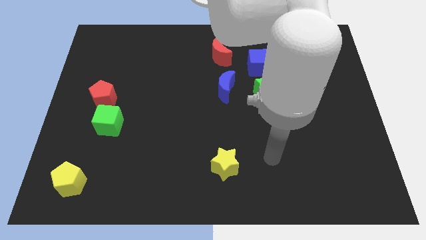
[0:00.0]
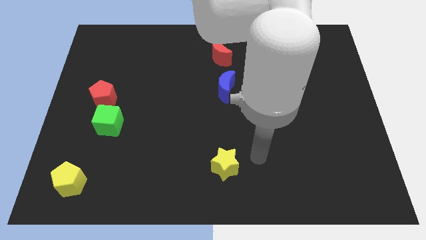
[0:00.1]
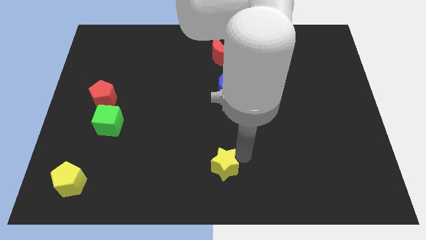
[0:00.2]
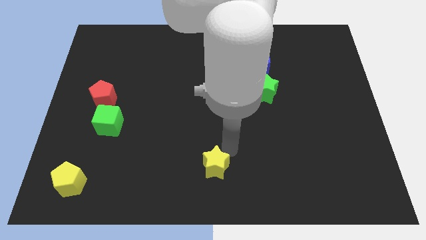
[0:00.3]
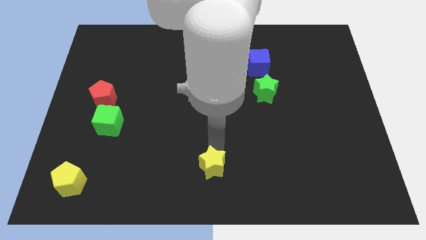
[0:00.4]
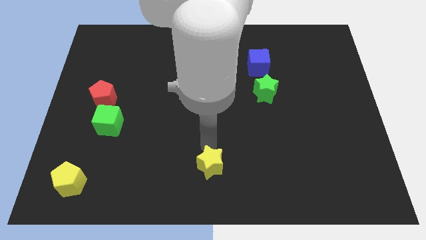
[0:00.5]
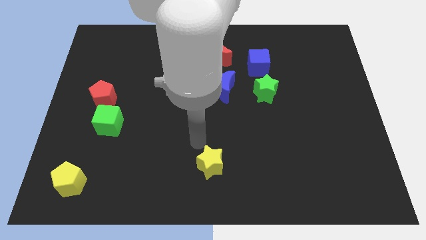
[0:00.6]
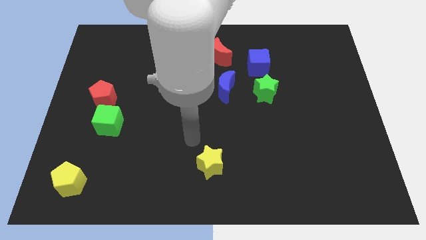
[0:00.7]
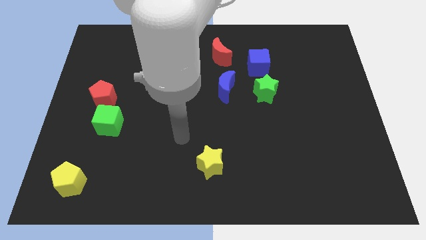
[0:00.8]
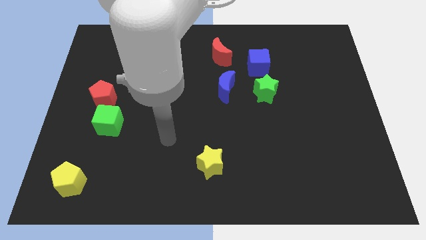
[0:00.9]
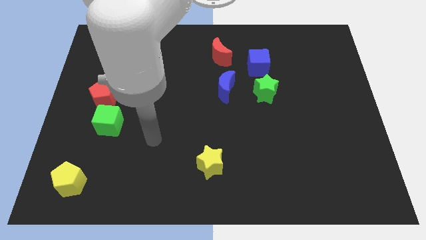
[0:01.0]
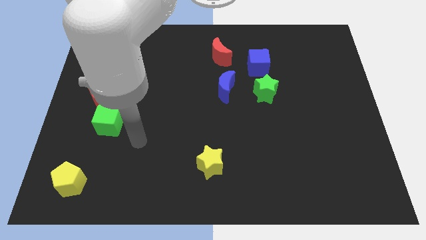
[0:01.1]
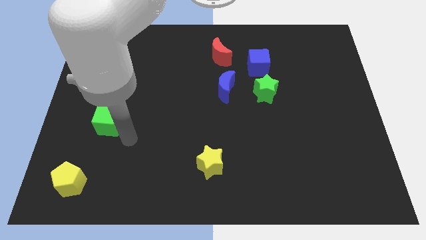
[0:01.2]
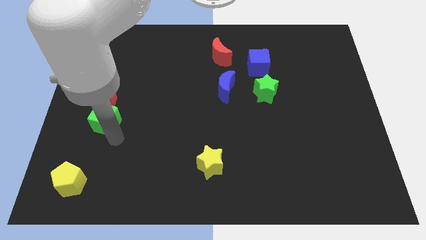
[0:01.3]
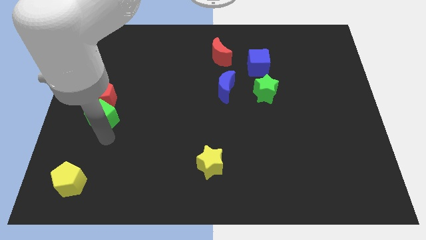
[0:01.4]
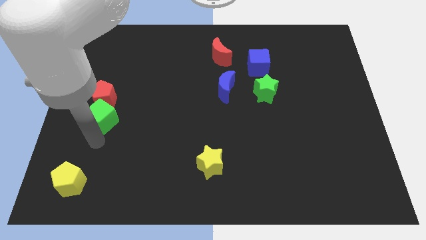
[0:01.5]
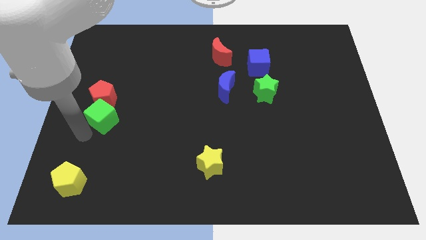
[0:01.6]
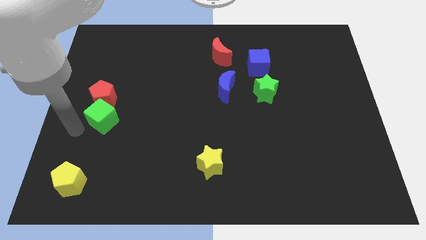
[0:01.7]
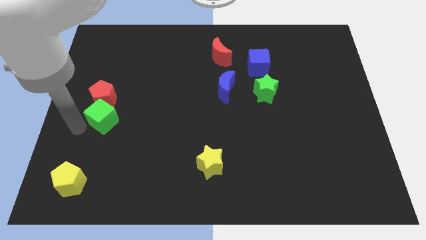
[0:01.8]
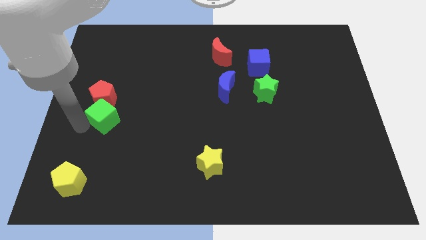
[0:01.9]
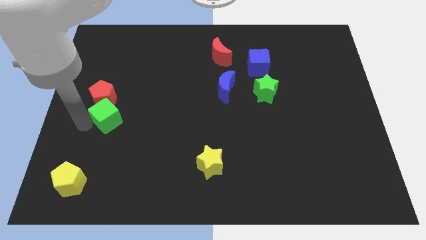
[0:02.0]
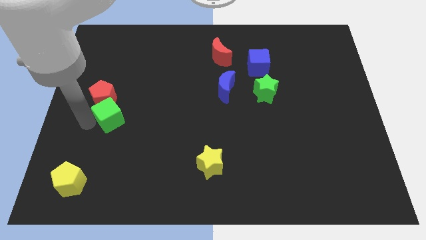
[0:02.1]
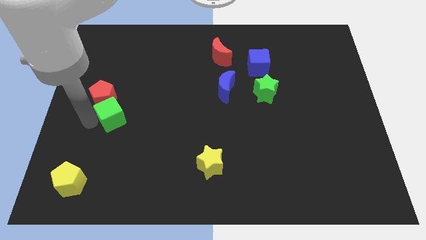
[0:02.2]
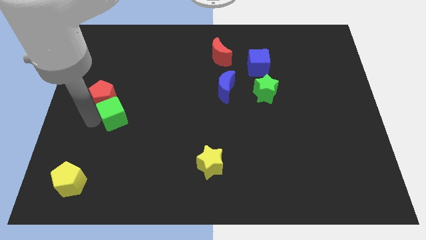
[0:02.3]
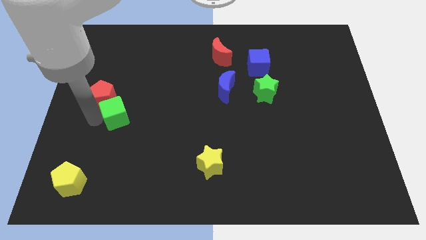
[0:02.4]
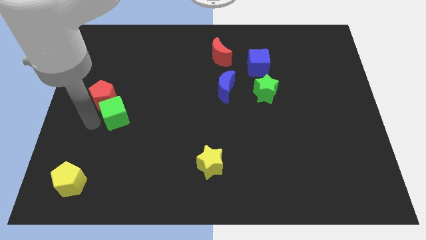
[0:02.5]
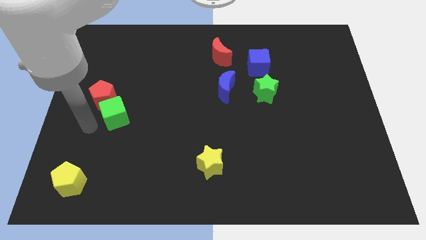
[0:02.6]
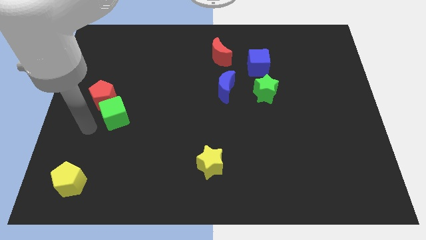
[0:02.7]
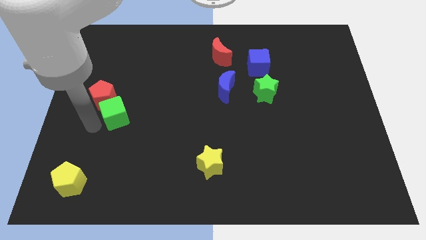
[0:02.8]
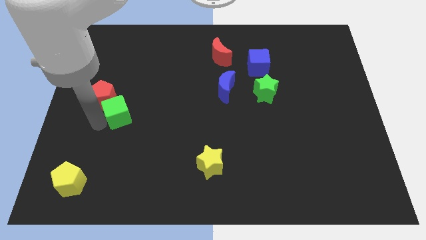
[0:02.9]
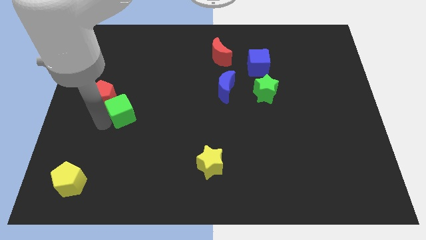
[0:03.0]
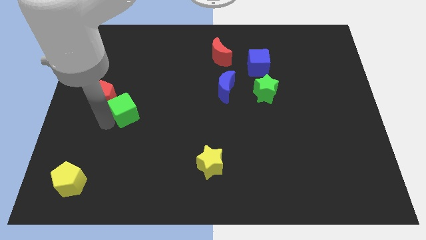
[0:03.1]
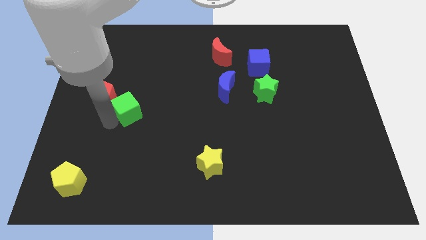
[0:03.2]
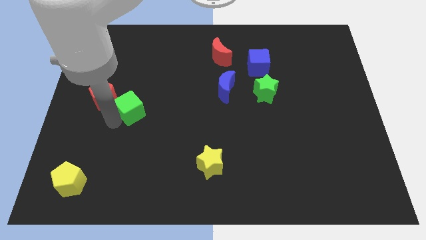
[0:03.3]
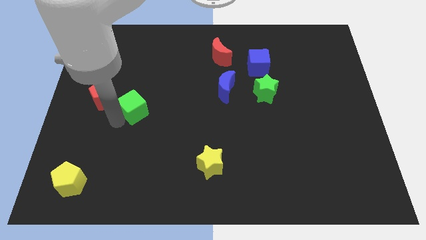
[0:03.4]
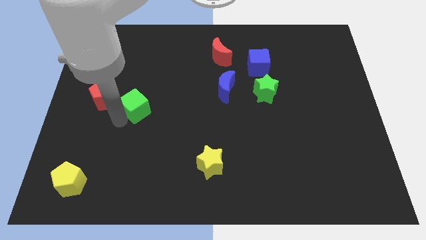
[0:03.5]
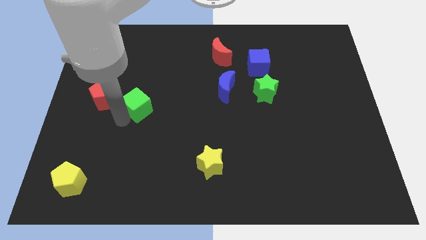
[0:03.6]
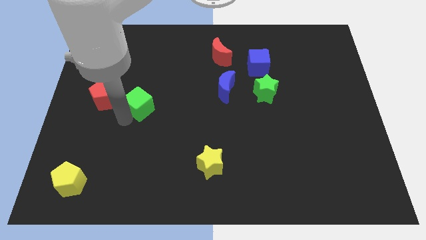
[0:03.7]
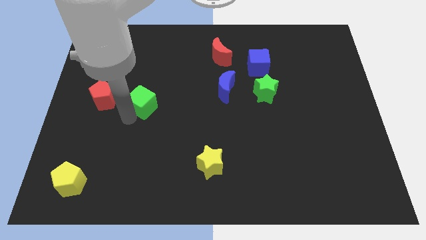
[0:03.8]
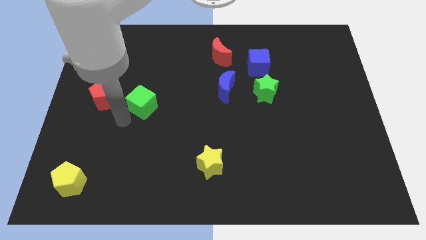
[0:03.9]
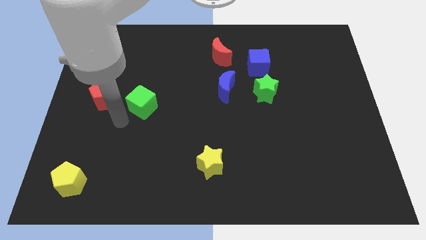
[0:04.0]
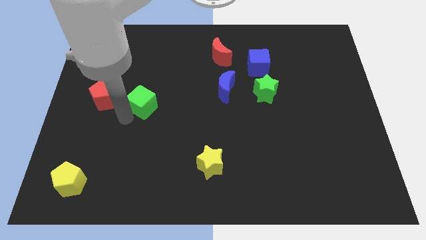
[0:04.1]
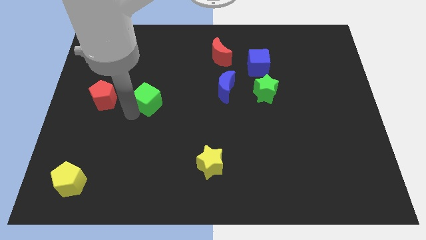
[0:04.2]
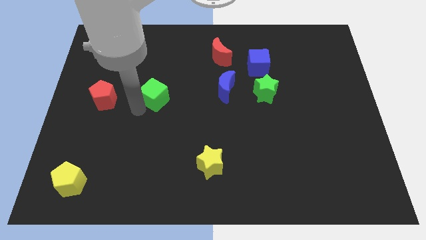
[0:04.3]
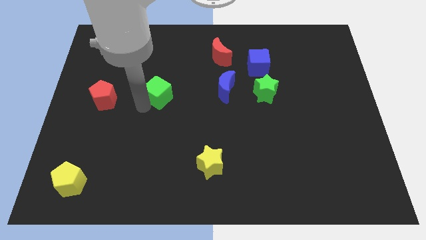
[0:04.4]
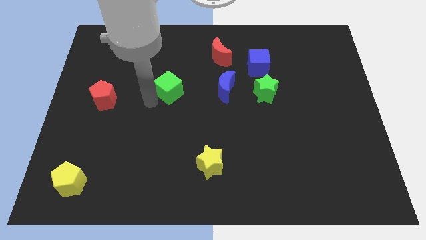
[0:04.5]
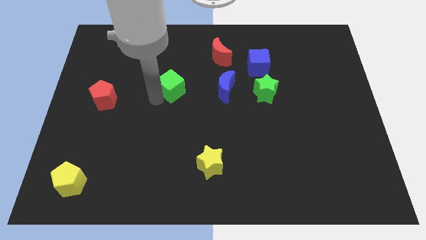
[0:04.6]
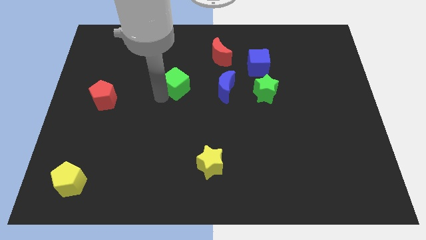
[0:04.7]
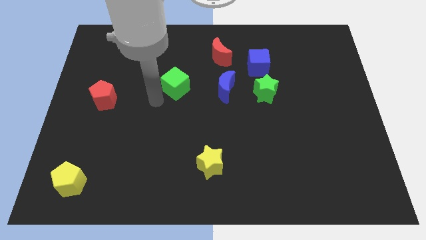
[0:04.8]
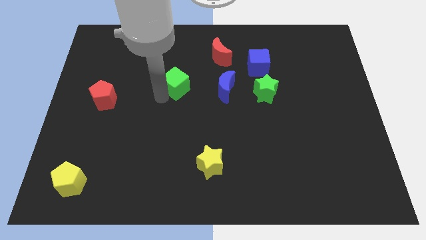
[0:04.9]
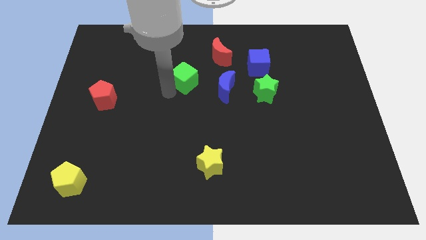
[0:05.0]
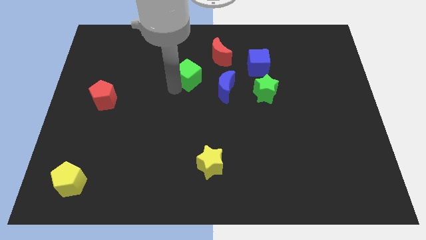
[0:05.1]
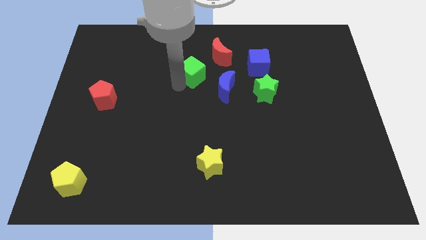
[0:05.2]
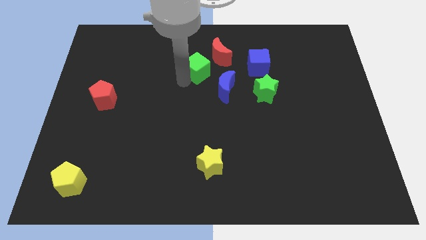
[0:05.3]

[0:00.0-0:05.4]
put the green cube to the left of the blue cube

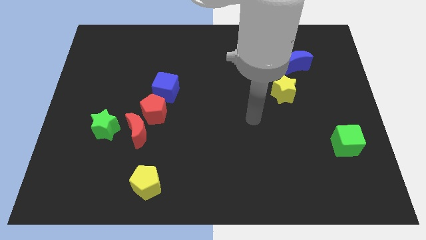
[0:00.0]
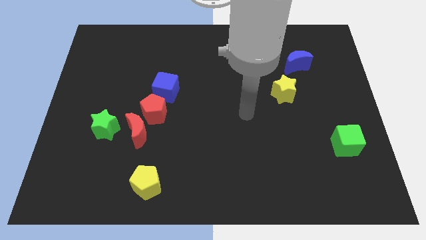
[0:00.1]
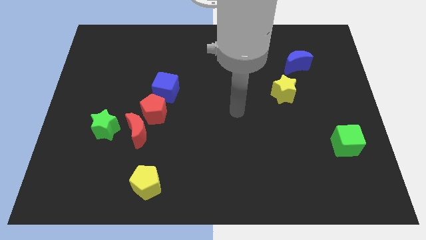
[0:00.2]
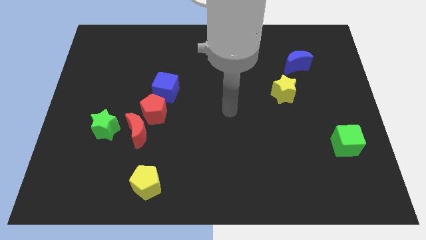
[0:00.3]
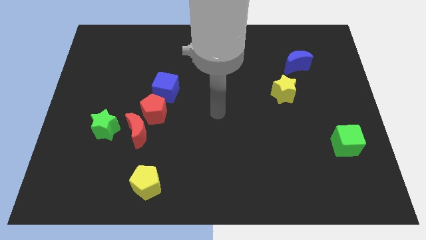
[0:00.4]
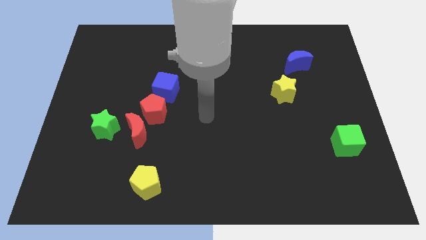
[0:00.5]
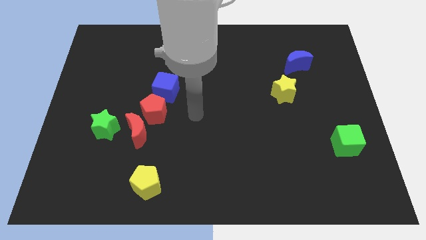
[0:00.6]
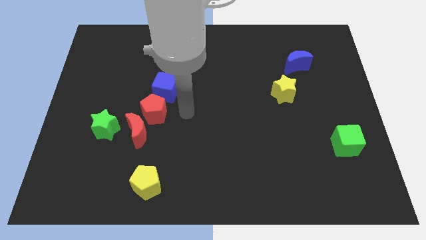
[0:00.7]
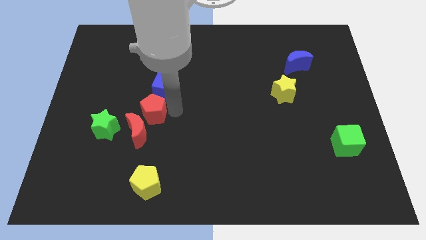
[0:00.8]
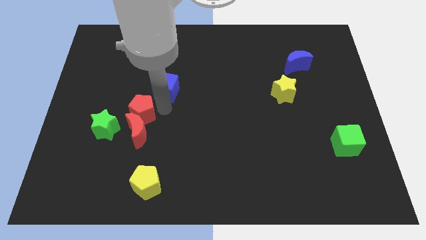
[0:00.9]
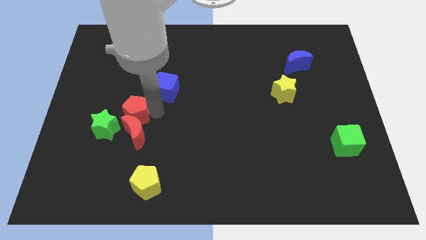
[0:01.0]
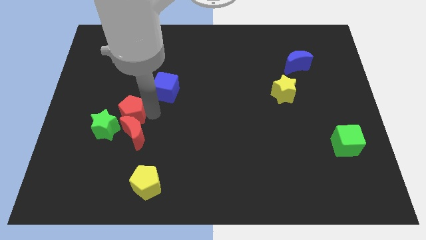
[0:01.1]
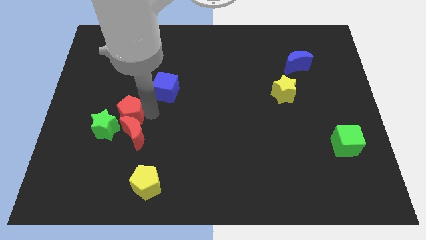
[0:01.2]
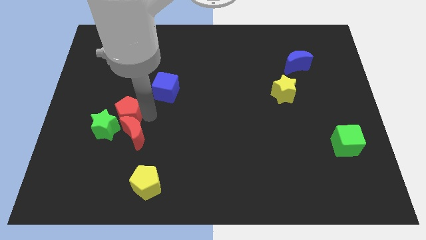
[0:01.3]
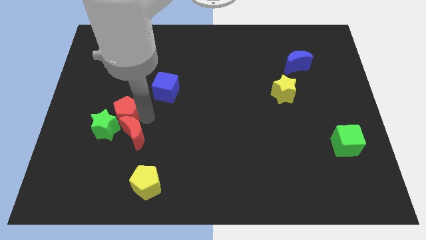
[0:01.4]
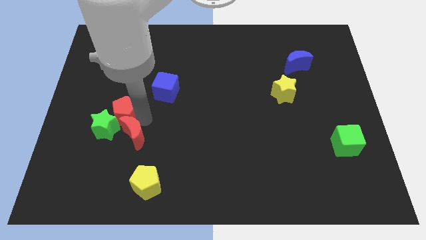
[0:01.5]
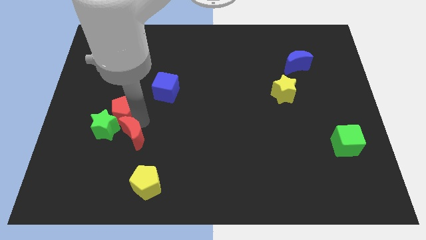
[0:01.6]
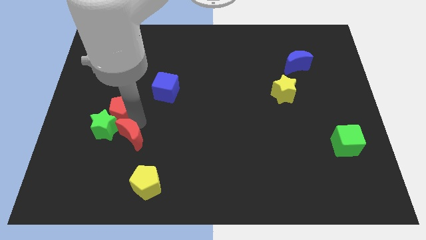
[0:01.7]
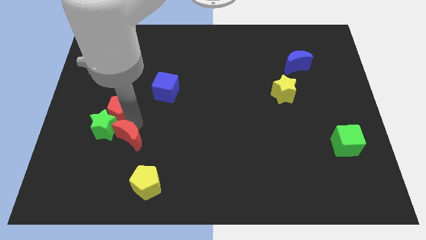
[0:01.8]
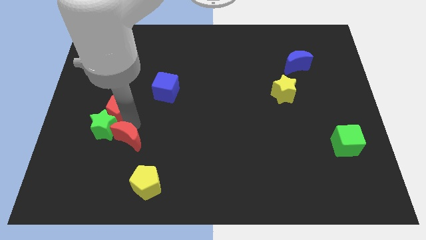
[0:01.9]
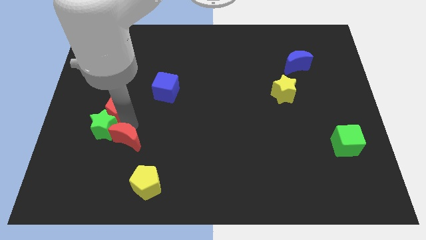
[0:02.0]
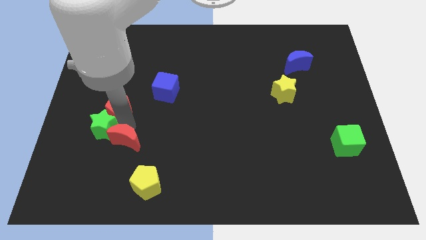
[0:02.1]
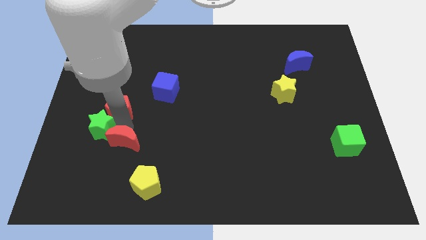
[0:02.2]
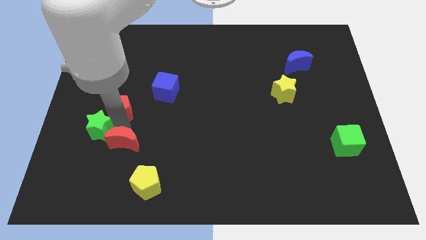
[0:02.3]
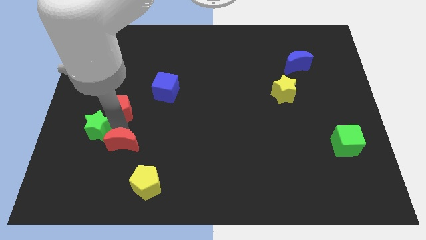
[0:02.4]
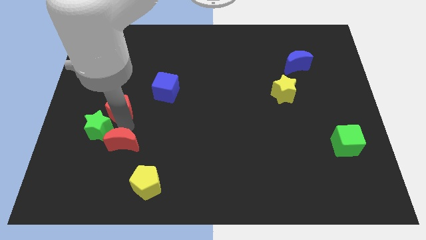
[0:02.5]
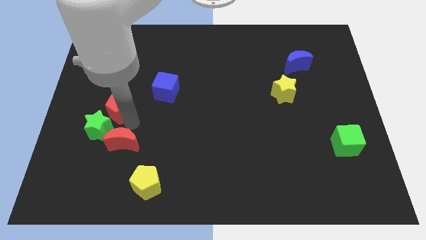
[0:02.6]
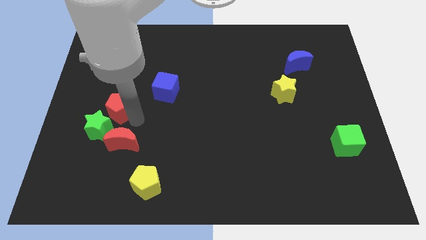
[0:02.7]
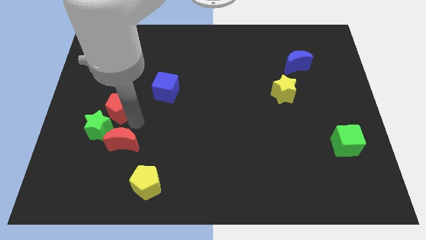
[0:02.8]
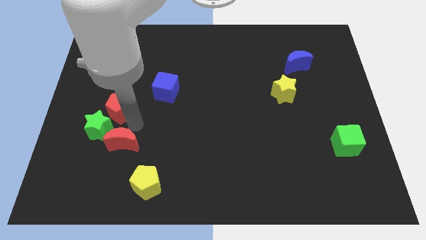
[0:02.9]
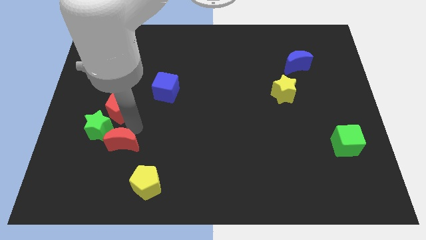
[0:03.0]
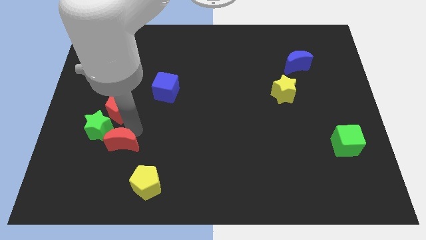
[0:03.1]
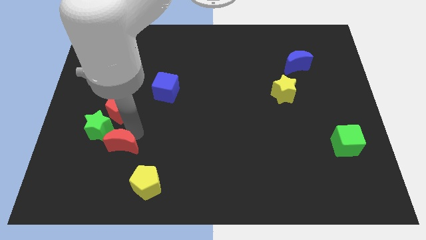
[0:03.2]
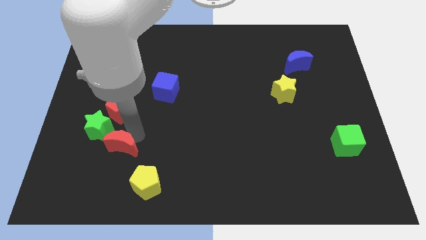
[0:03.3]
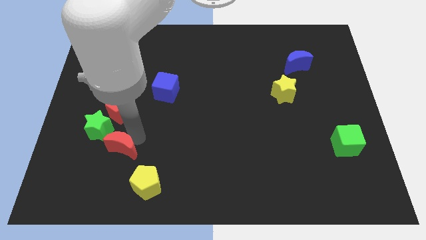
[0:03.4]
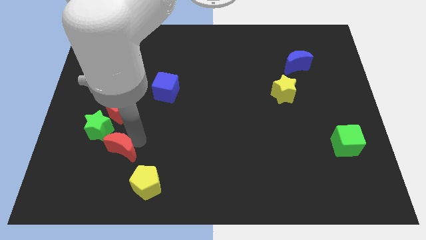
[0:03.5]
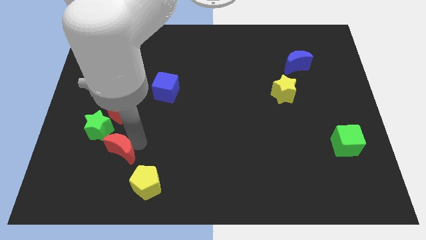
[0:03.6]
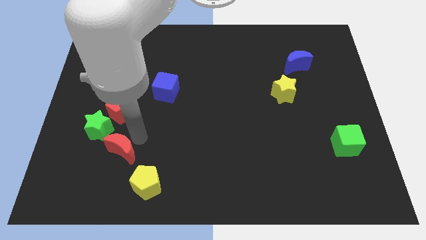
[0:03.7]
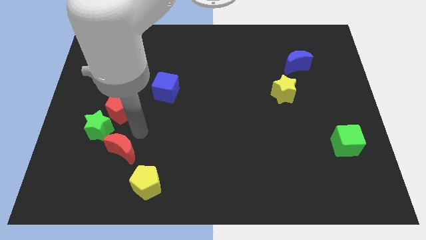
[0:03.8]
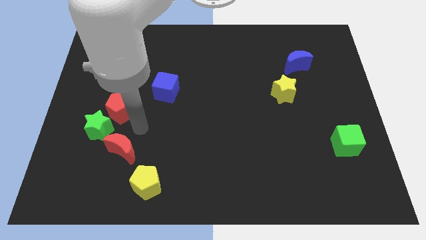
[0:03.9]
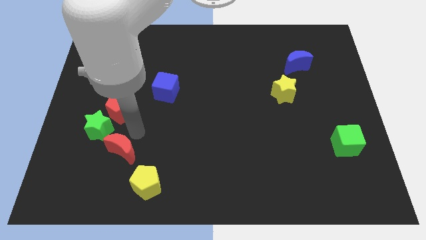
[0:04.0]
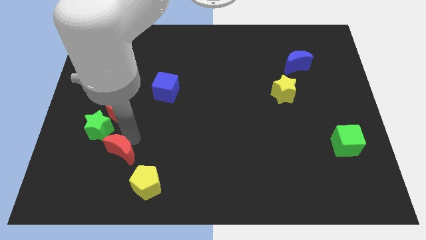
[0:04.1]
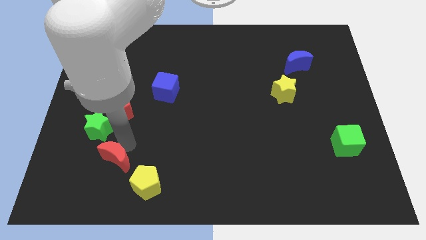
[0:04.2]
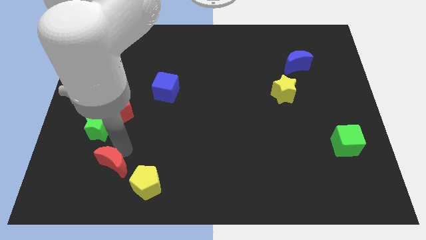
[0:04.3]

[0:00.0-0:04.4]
slide the red moon to the left of the yellow pentagon
